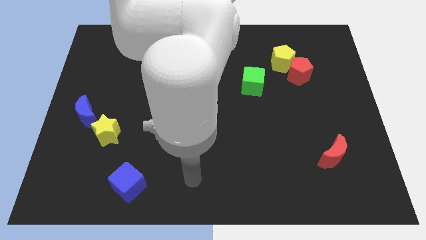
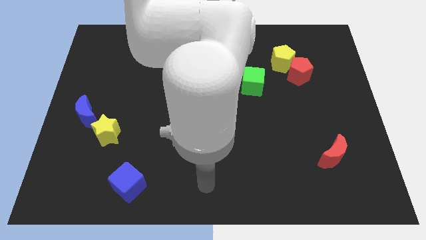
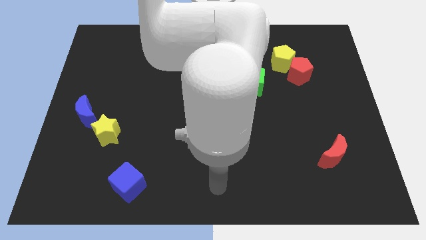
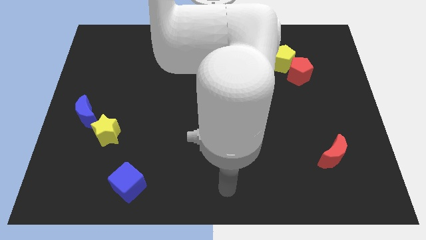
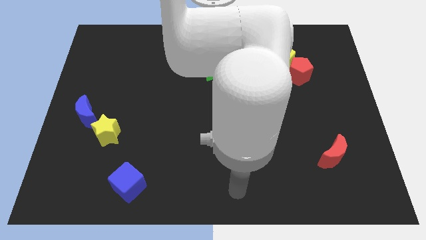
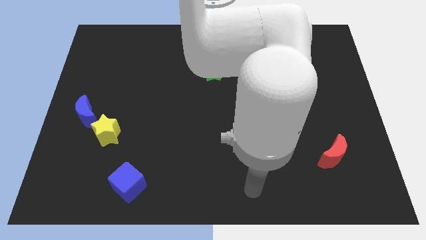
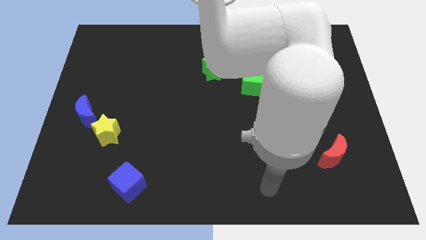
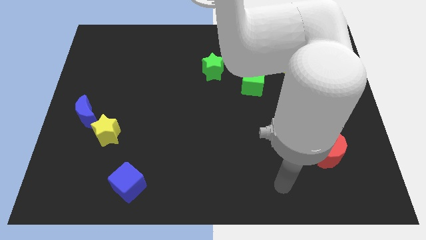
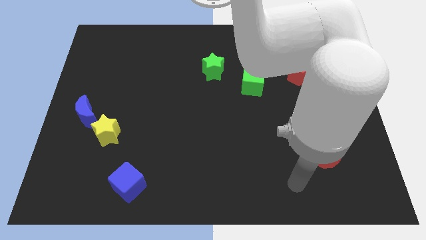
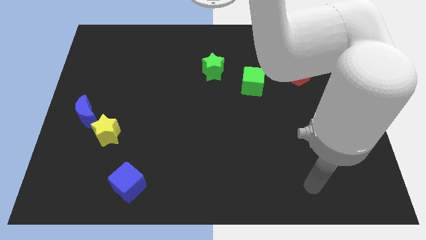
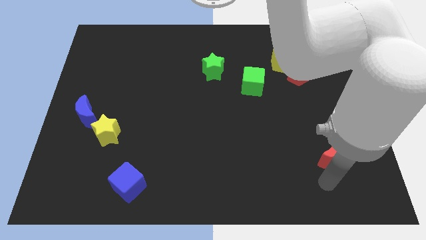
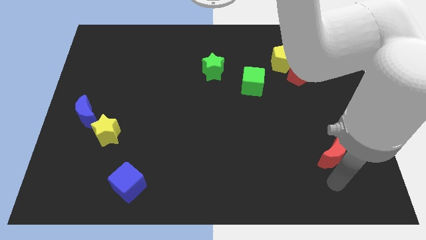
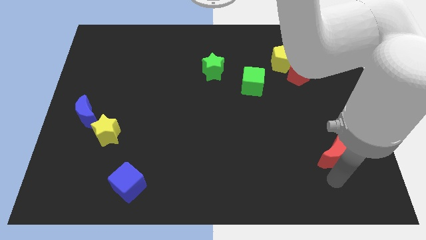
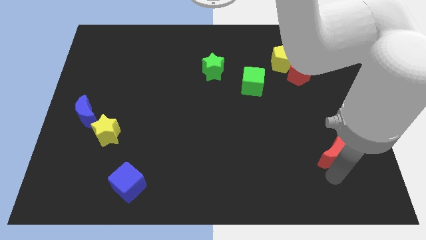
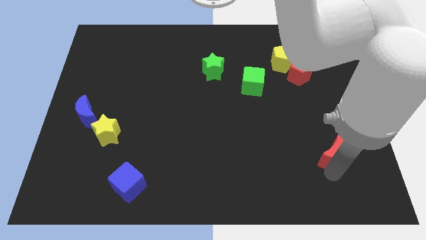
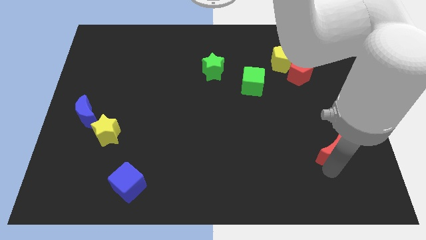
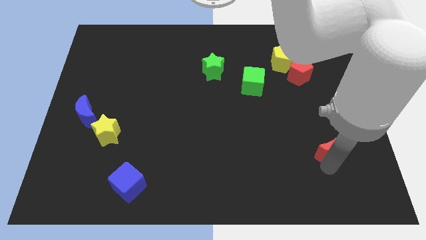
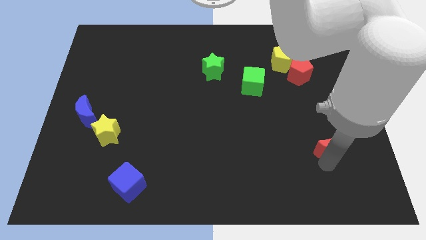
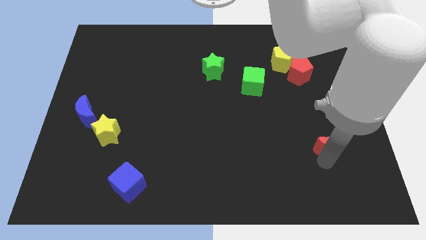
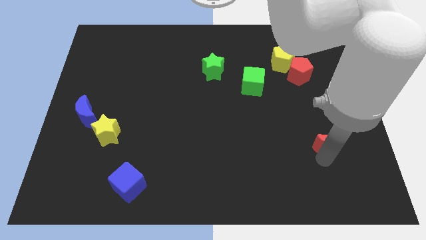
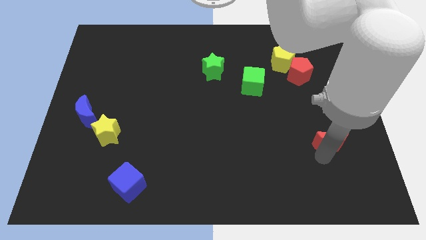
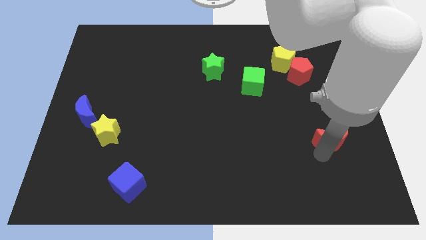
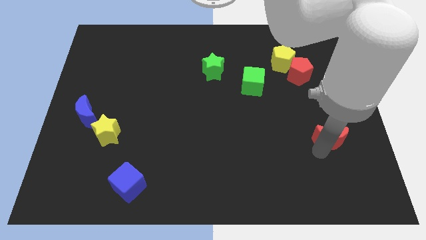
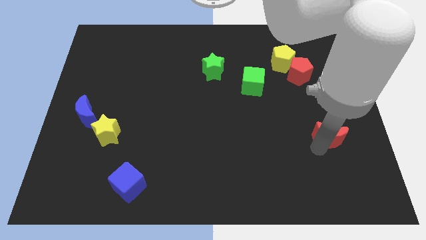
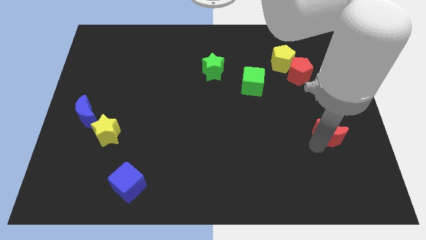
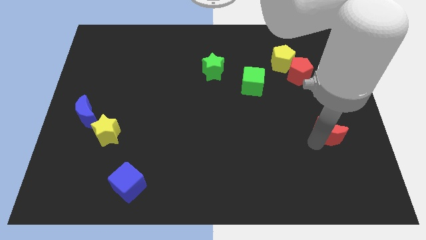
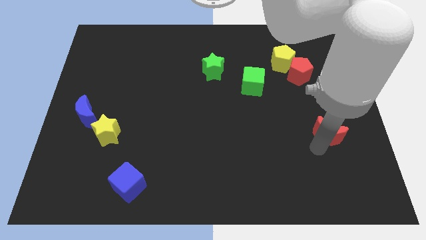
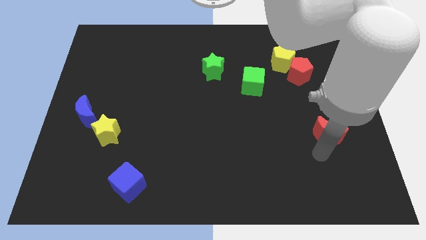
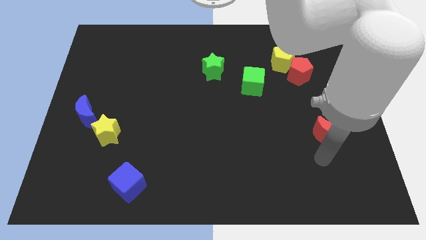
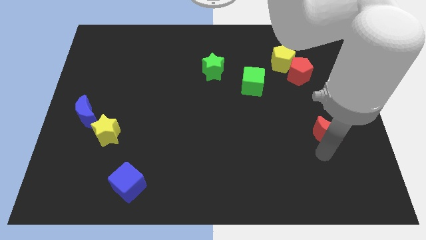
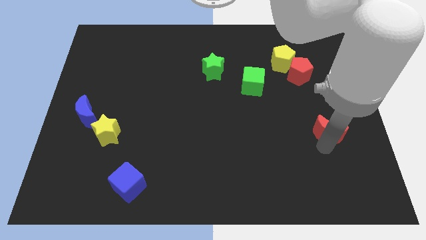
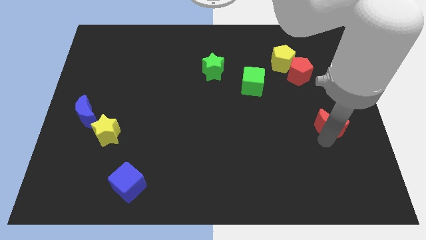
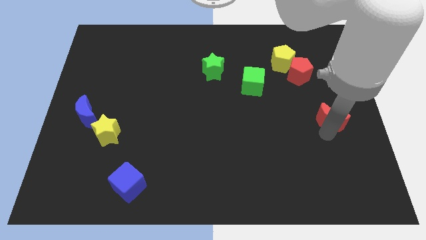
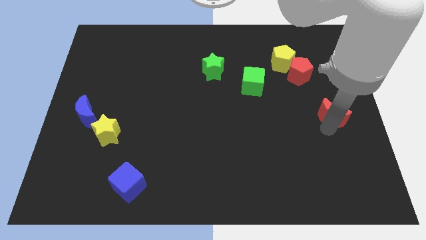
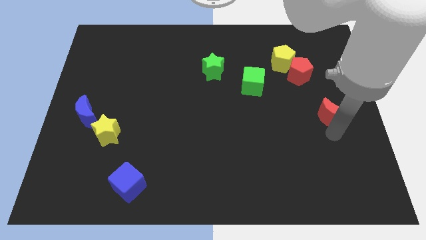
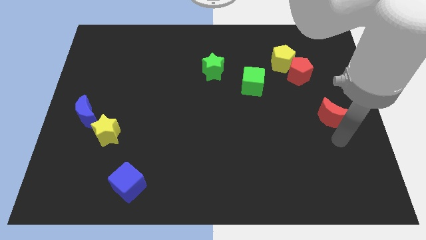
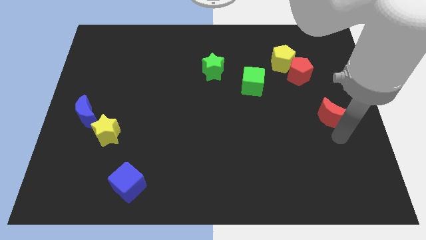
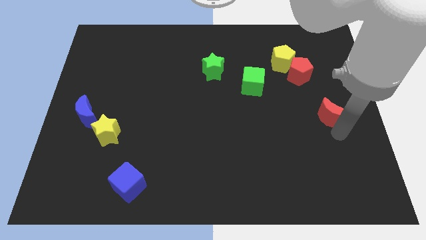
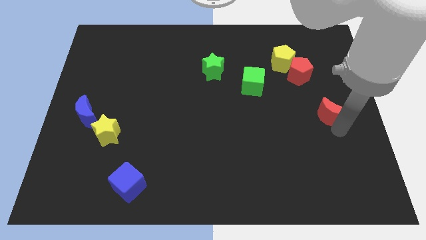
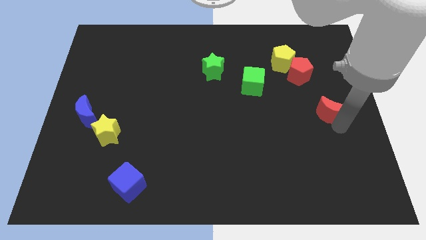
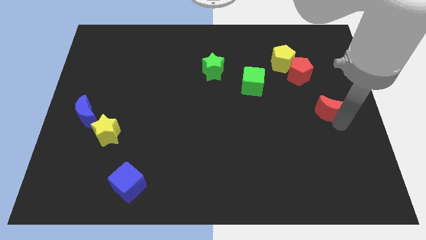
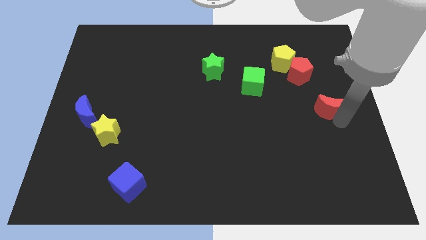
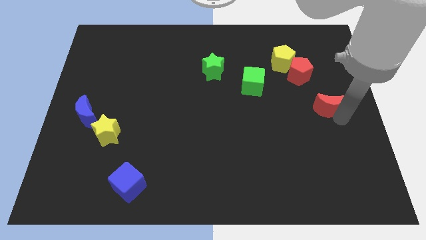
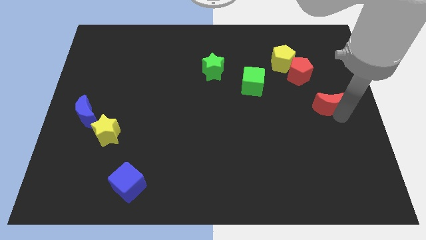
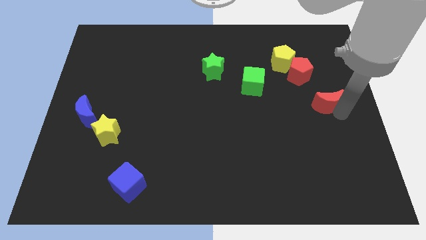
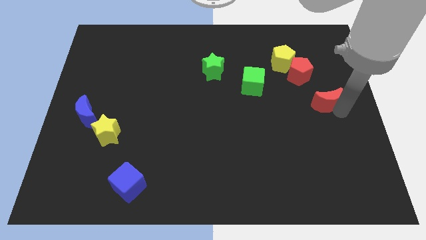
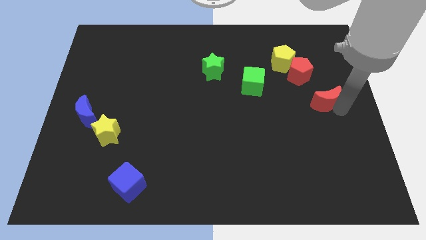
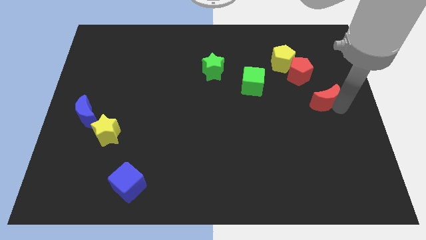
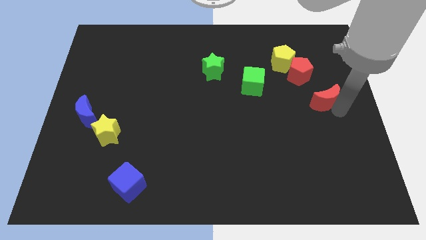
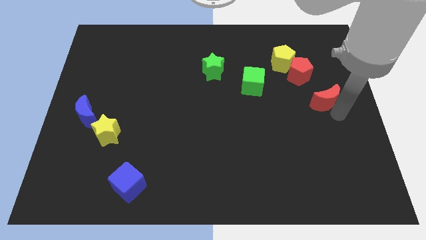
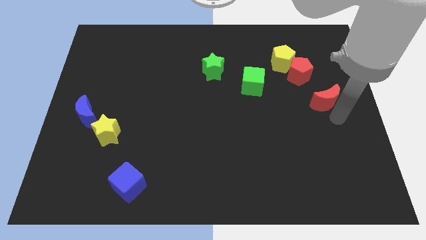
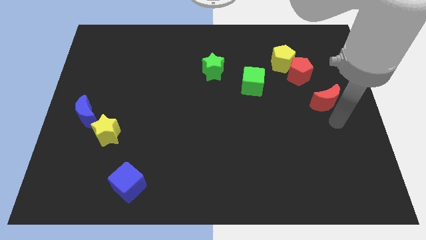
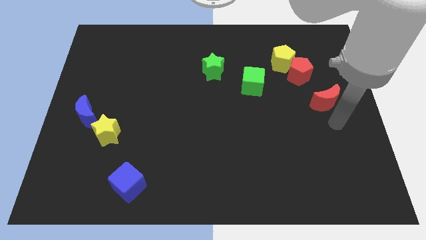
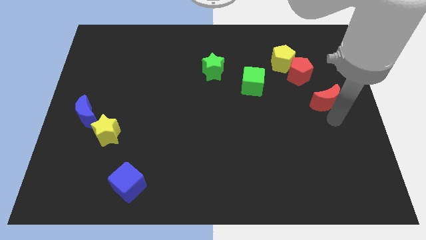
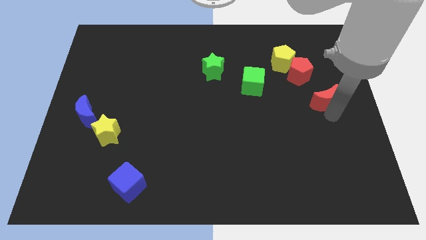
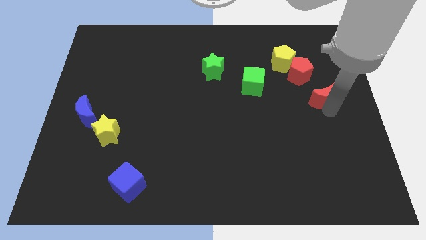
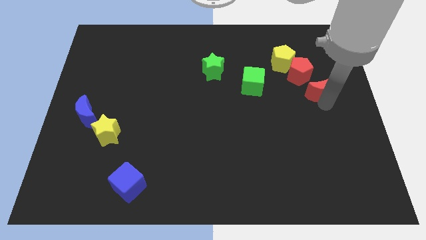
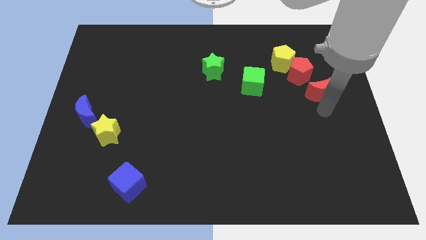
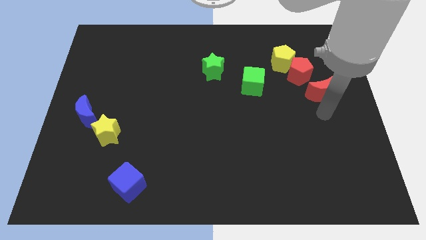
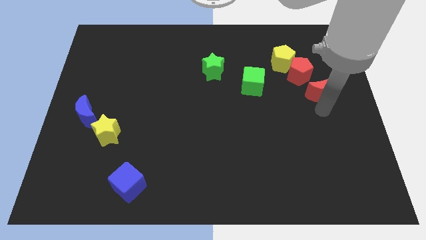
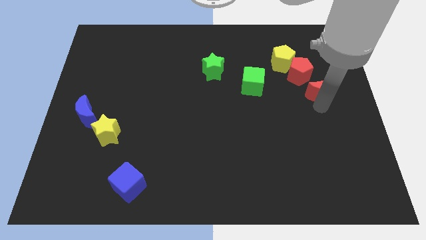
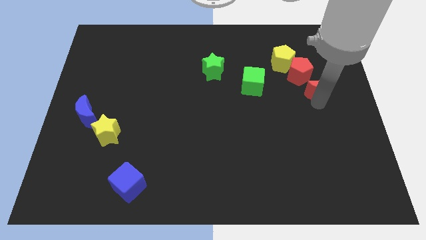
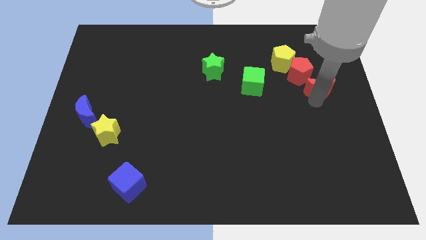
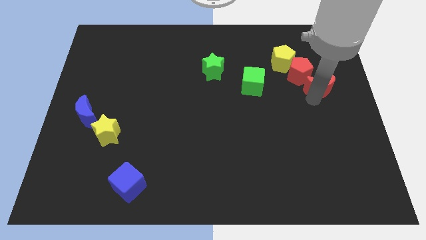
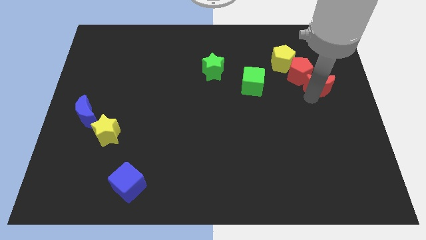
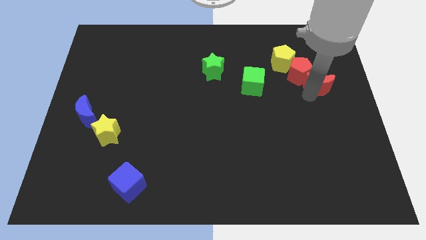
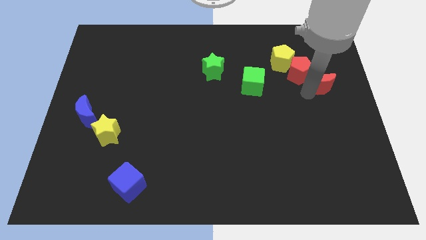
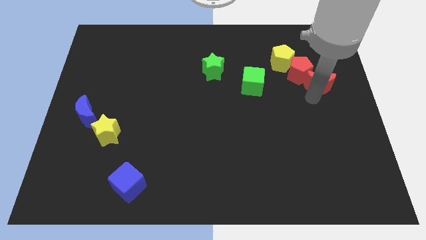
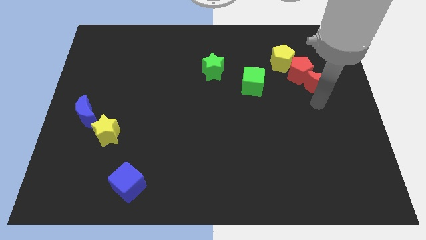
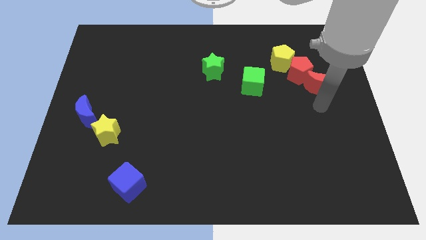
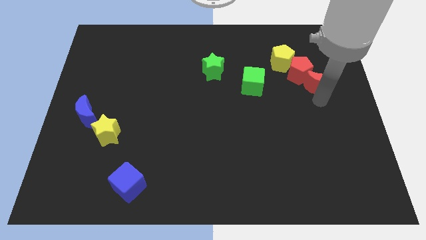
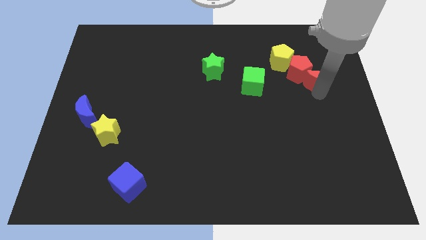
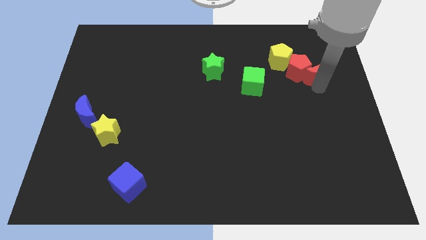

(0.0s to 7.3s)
put the red moon to the top right of the red pentagon

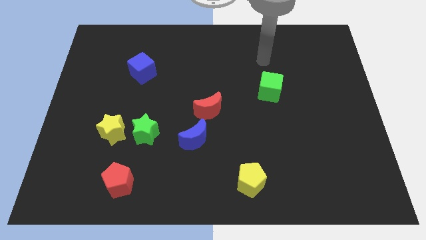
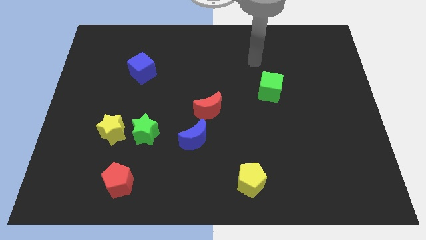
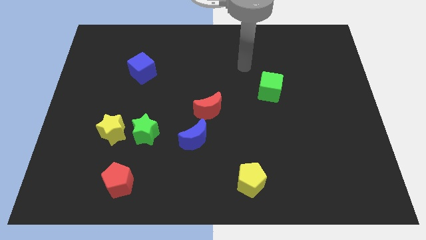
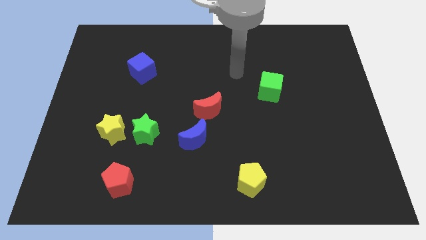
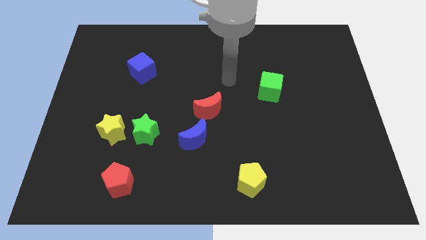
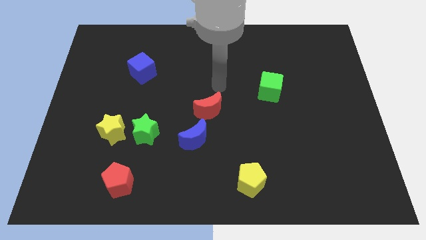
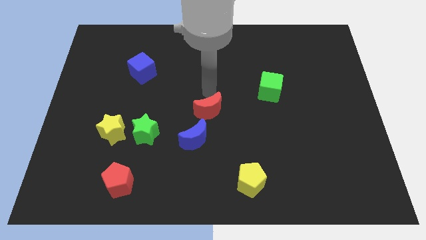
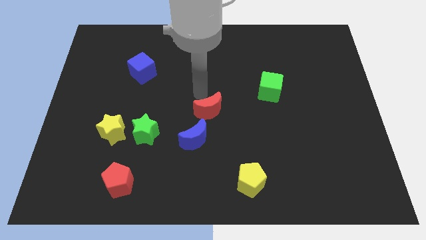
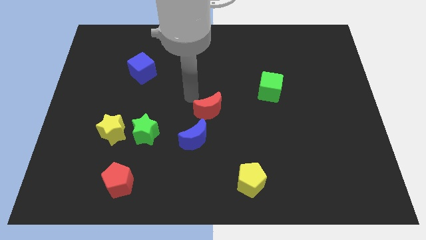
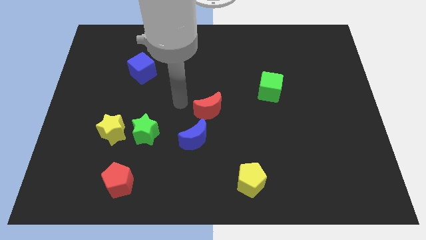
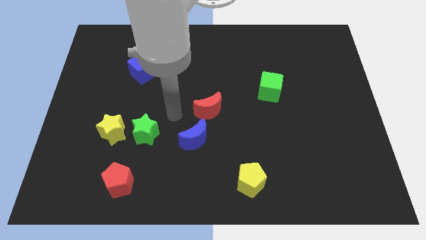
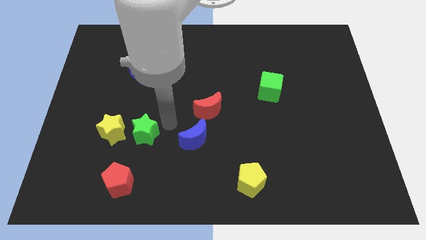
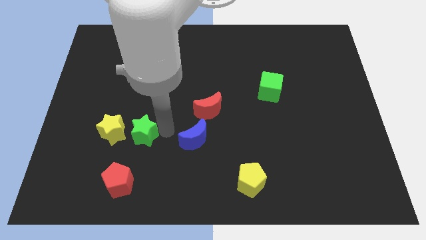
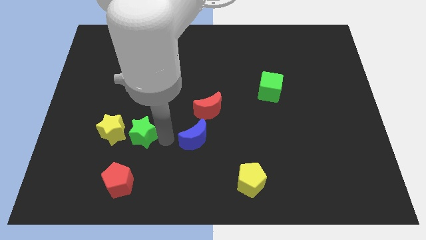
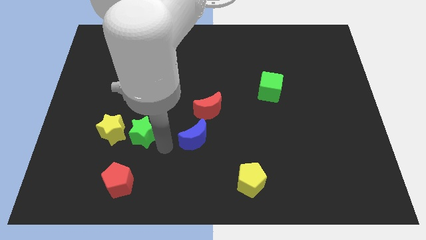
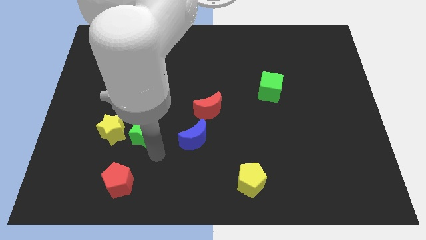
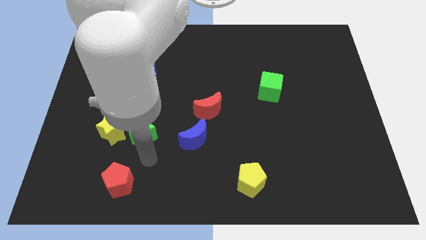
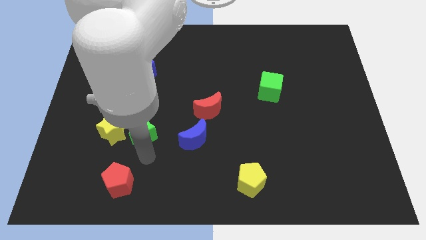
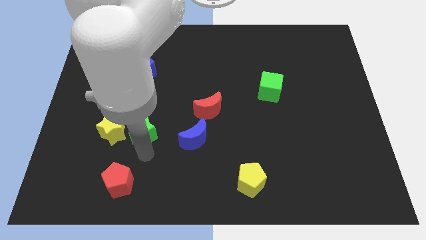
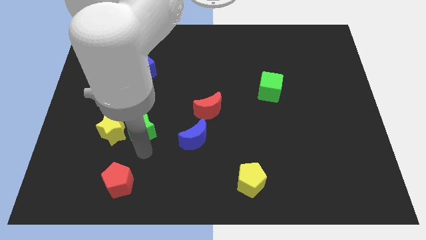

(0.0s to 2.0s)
move the green star to the top right of the yellow star
